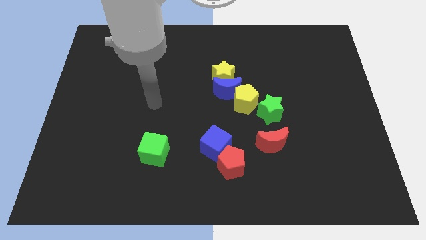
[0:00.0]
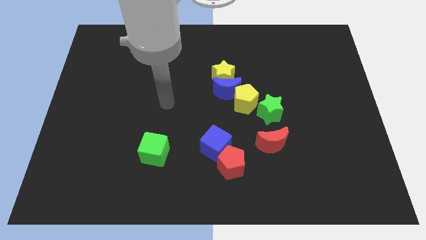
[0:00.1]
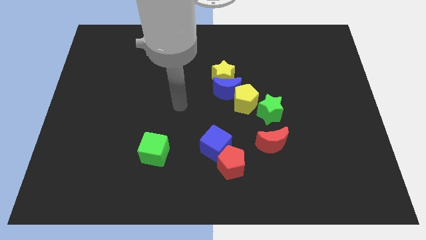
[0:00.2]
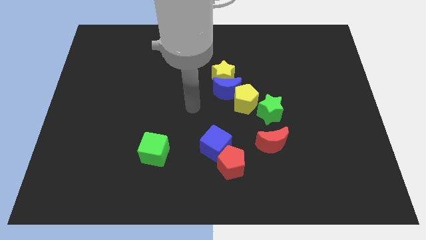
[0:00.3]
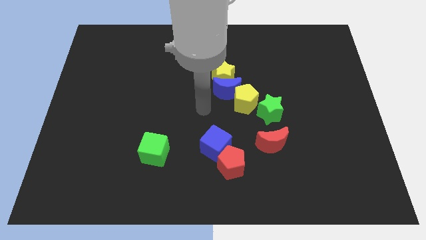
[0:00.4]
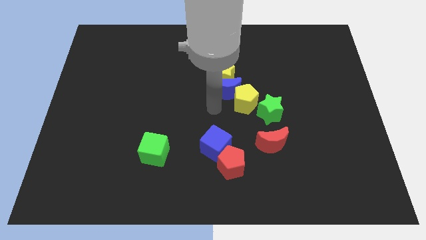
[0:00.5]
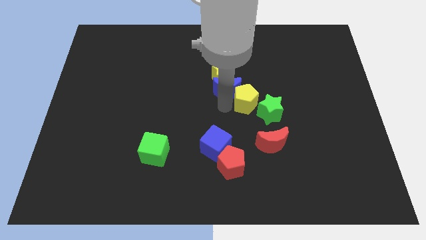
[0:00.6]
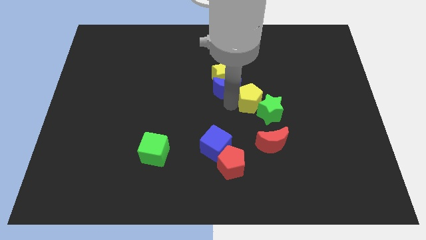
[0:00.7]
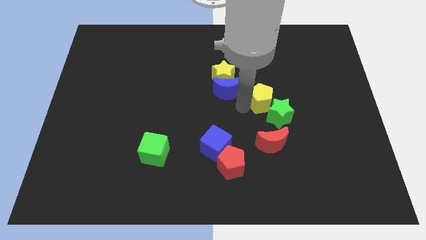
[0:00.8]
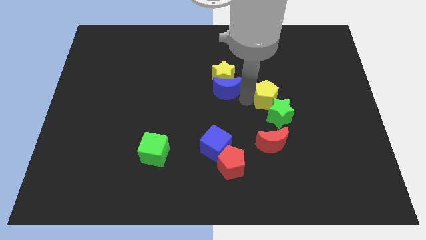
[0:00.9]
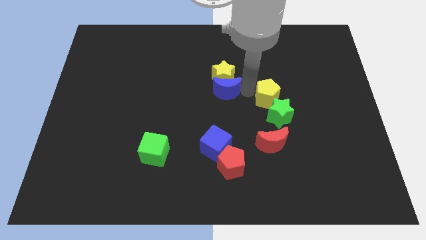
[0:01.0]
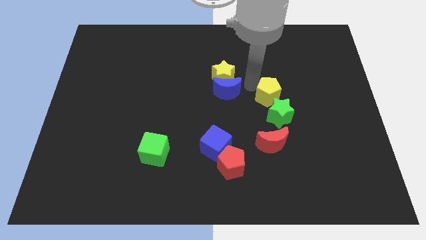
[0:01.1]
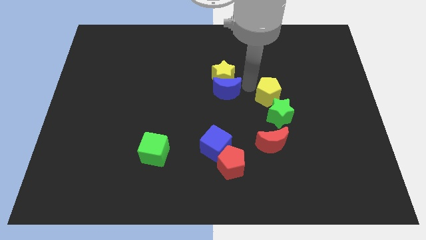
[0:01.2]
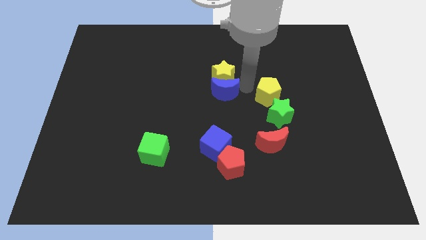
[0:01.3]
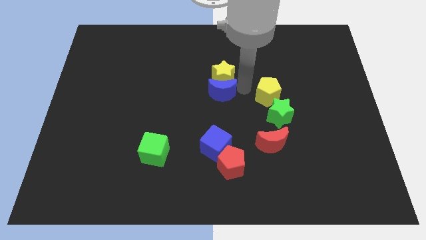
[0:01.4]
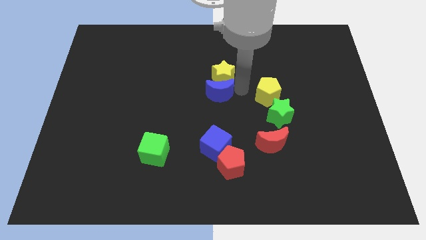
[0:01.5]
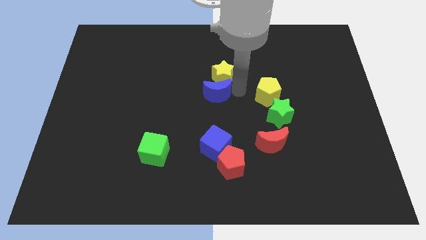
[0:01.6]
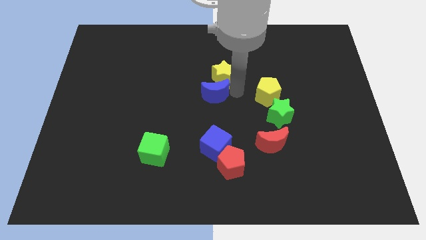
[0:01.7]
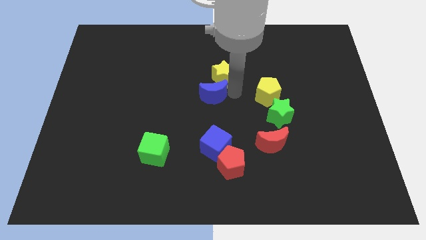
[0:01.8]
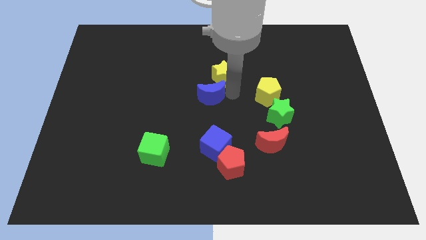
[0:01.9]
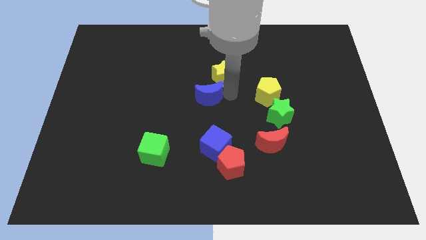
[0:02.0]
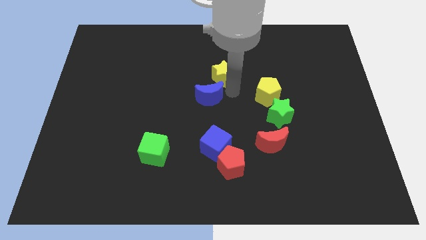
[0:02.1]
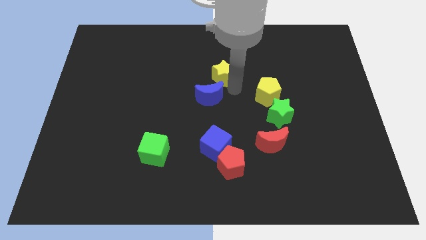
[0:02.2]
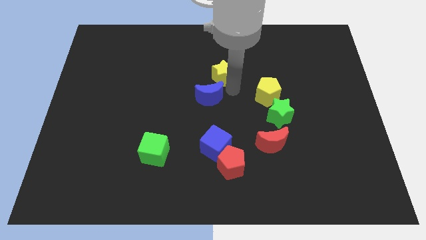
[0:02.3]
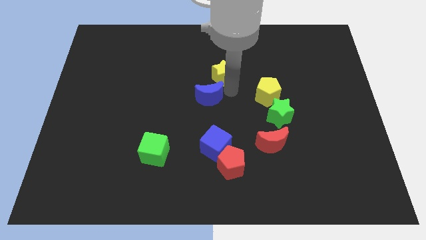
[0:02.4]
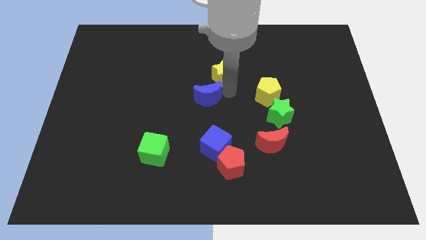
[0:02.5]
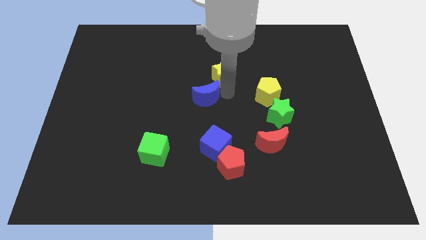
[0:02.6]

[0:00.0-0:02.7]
move the blue moon away from the yellow star and yellow pentagon

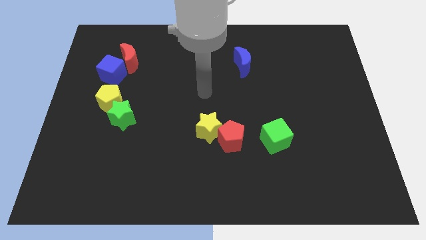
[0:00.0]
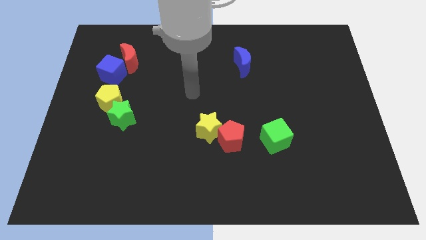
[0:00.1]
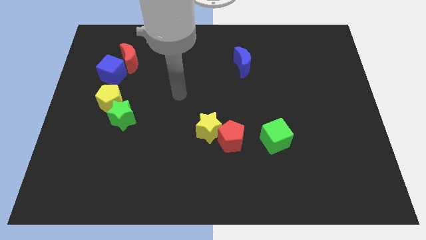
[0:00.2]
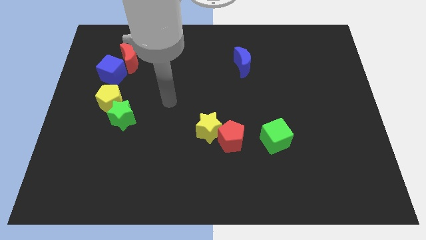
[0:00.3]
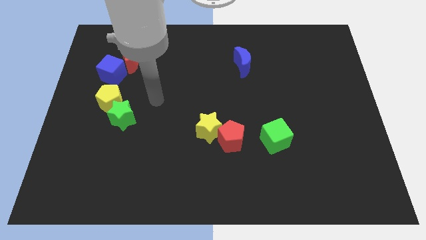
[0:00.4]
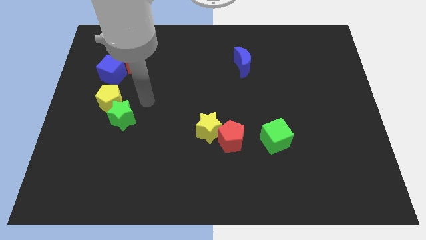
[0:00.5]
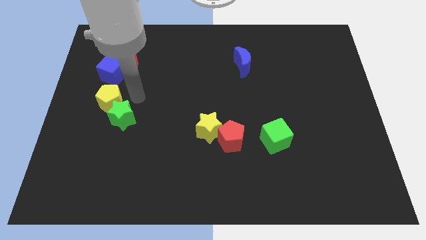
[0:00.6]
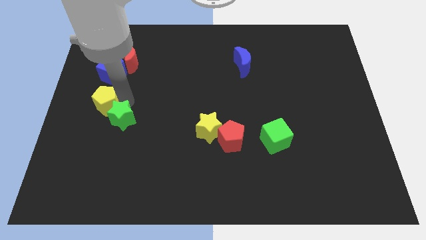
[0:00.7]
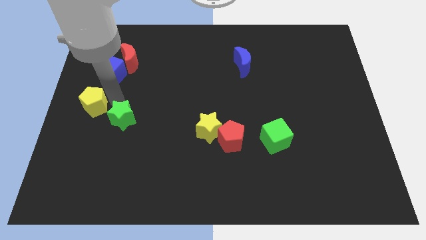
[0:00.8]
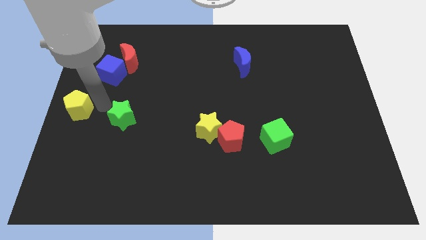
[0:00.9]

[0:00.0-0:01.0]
move the green star away from the yellow pentagon

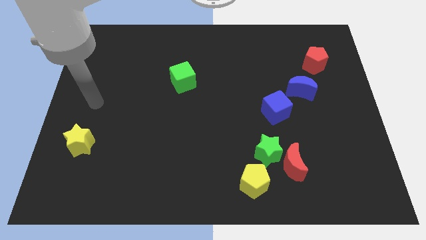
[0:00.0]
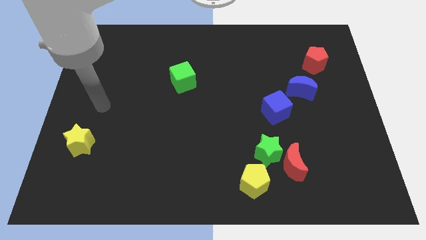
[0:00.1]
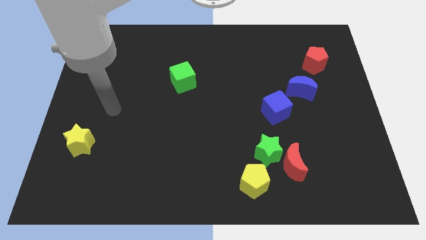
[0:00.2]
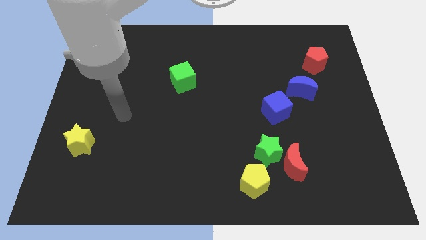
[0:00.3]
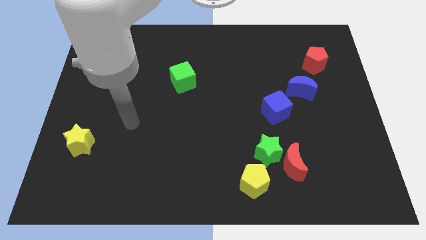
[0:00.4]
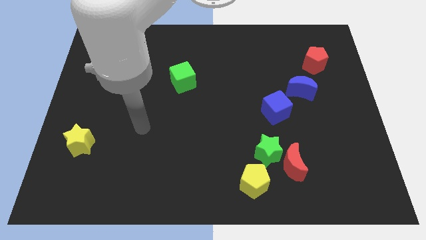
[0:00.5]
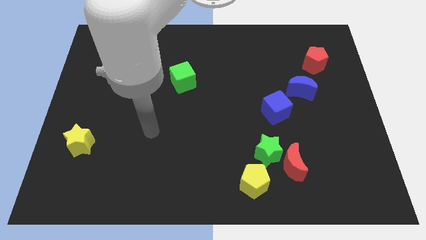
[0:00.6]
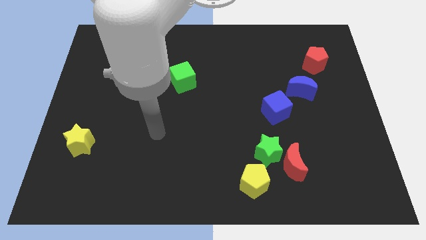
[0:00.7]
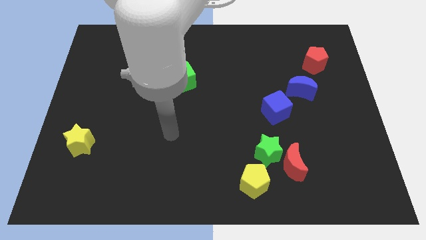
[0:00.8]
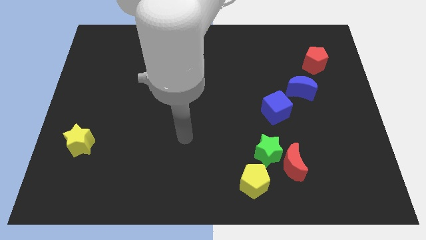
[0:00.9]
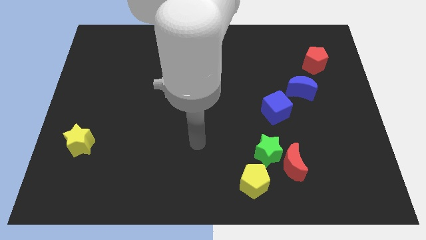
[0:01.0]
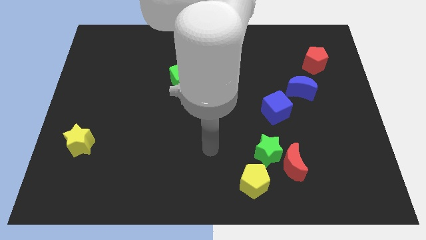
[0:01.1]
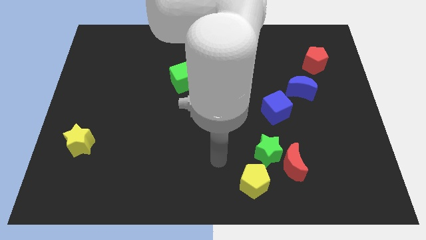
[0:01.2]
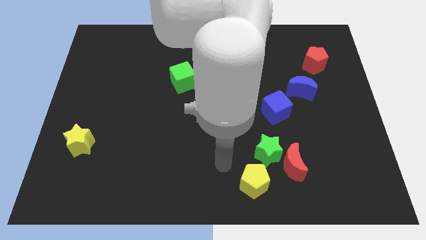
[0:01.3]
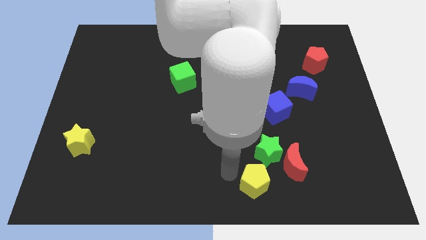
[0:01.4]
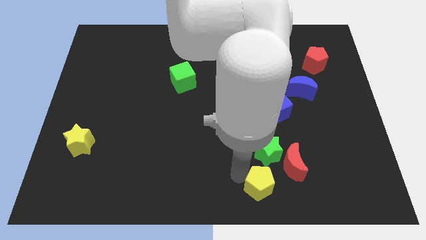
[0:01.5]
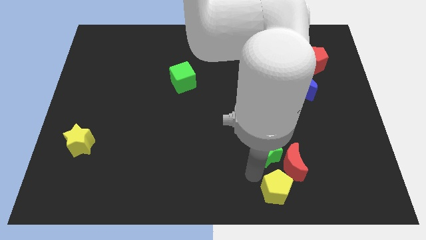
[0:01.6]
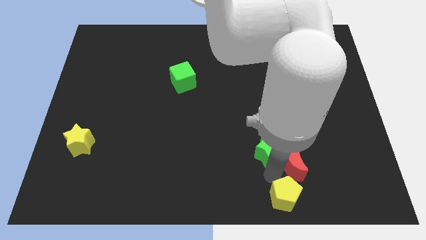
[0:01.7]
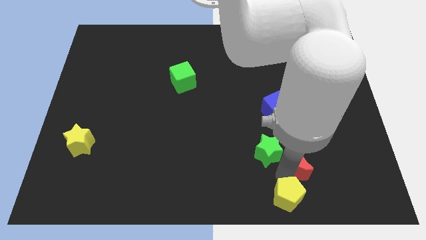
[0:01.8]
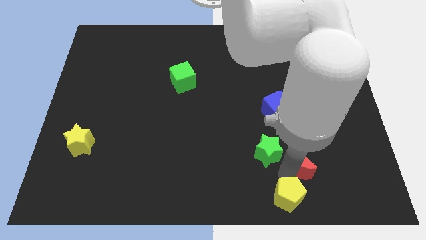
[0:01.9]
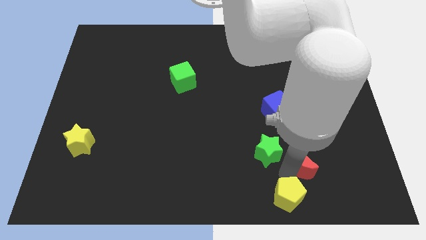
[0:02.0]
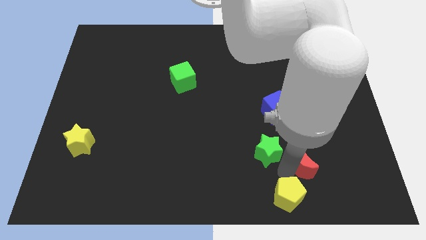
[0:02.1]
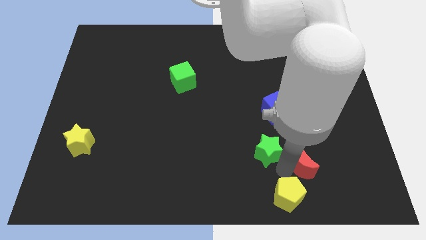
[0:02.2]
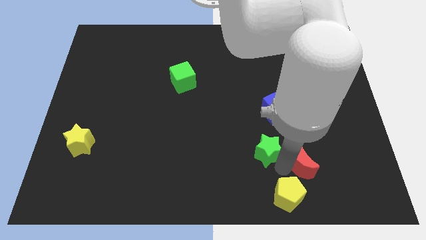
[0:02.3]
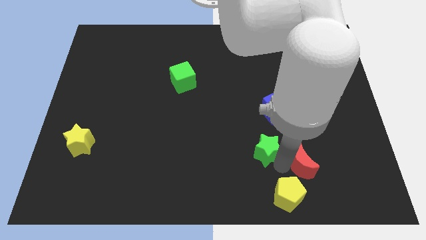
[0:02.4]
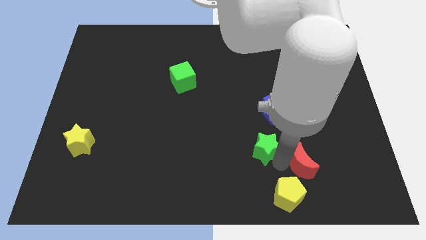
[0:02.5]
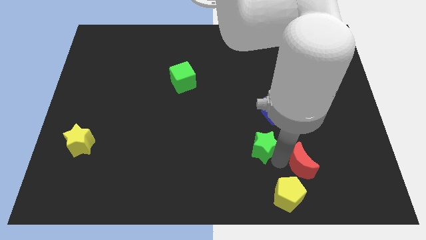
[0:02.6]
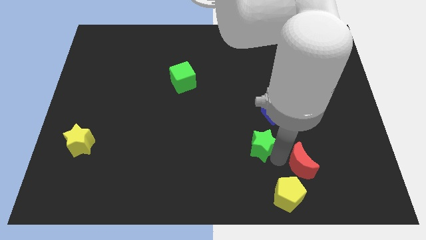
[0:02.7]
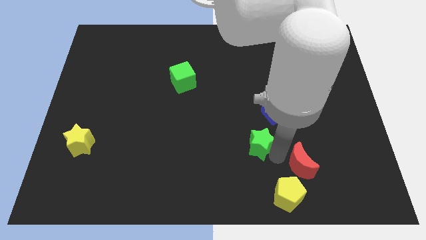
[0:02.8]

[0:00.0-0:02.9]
pull the green star apart from the red moon and yellow pentagon

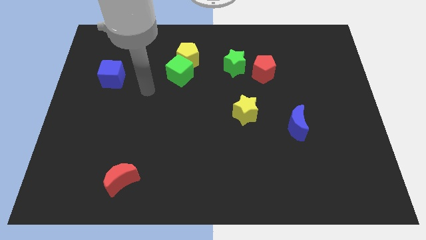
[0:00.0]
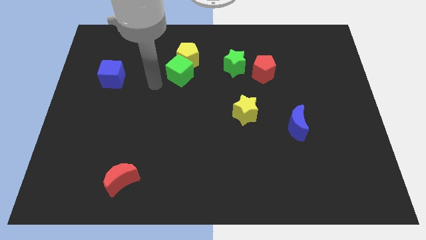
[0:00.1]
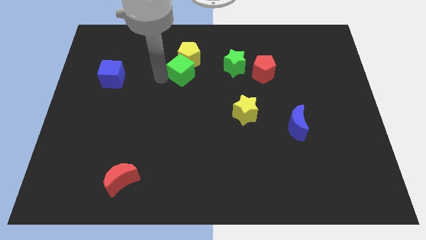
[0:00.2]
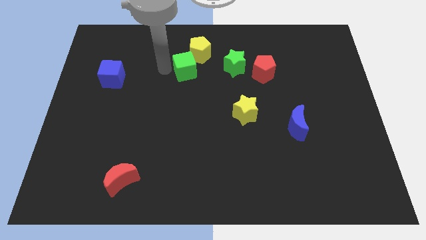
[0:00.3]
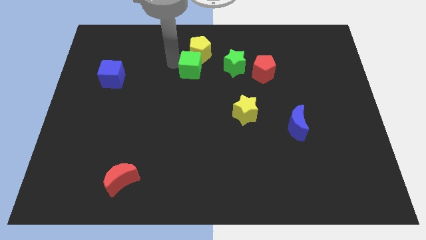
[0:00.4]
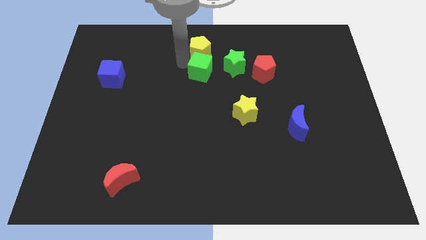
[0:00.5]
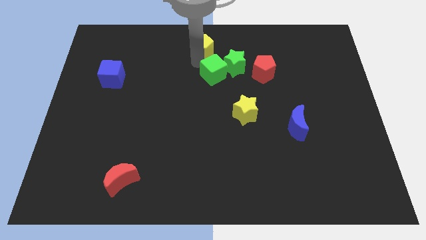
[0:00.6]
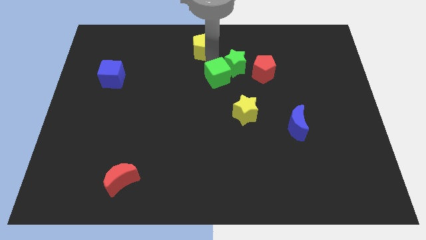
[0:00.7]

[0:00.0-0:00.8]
pull the green cube apart from the yellow pentagon

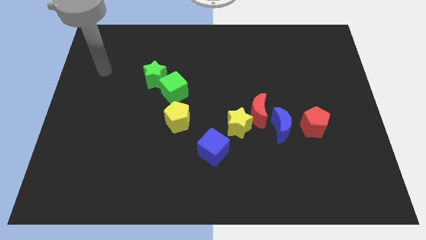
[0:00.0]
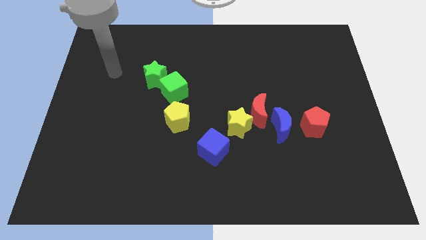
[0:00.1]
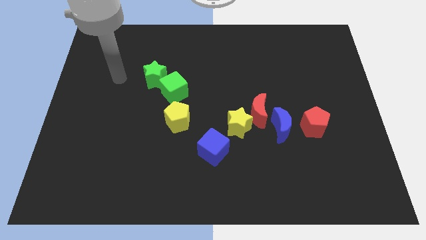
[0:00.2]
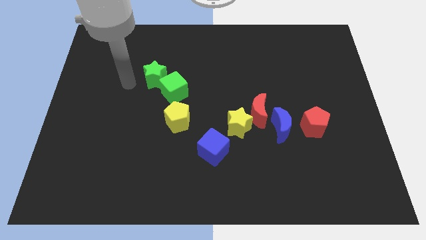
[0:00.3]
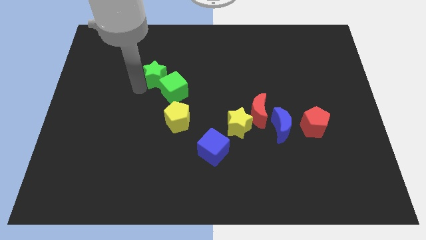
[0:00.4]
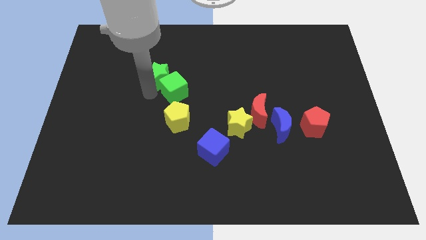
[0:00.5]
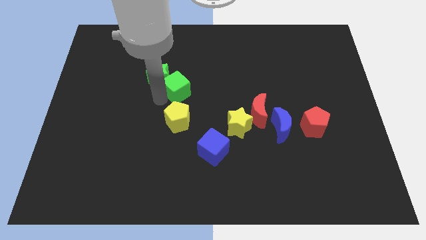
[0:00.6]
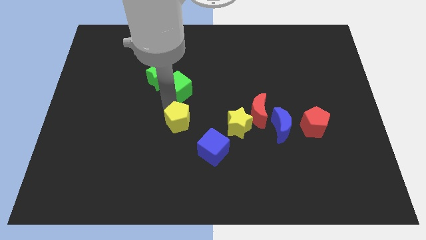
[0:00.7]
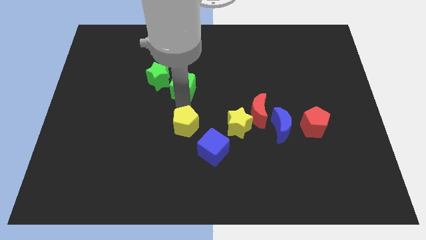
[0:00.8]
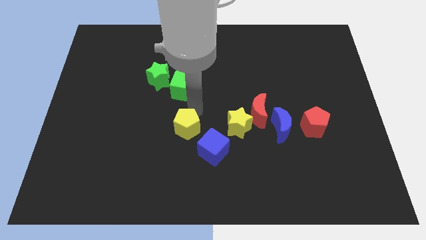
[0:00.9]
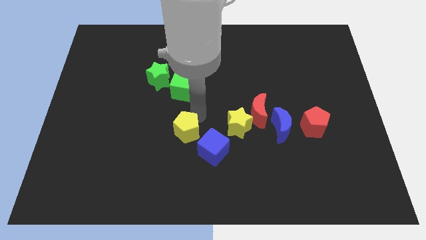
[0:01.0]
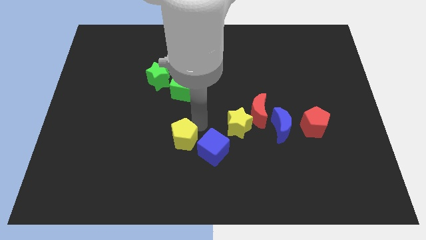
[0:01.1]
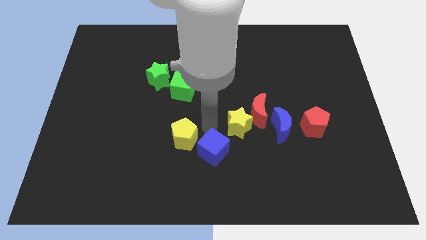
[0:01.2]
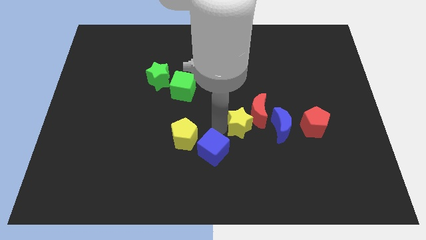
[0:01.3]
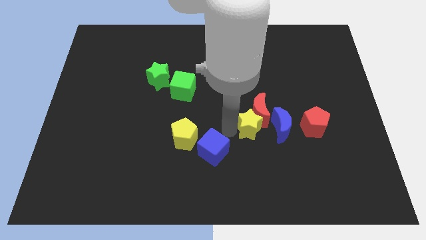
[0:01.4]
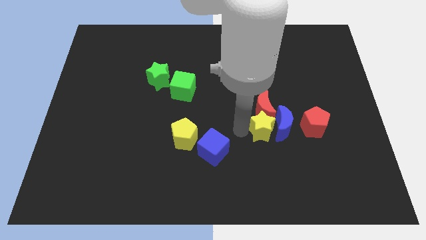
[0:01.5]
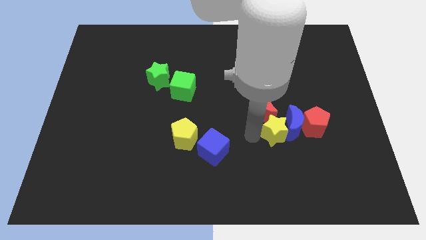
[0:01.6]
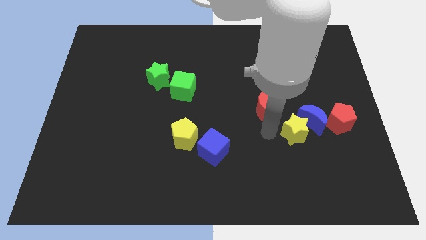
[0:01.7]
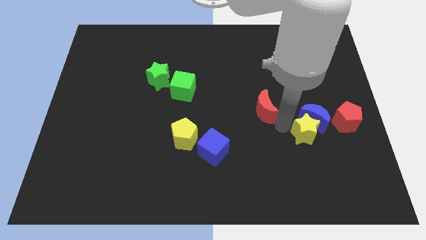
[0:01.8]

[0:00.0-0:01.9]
move the red moon away from the yellow star and blue moon
